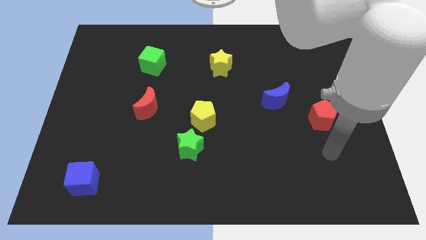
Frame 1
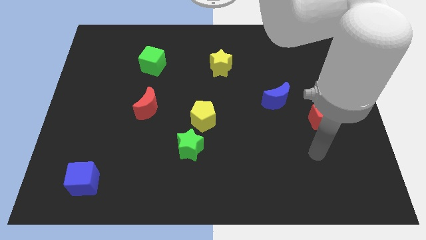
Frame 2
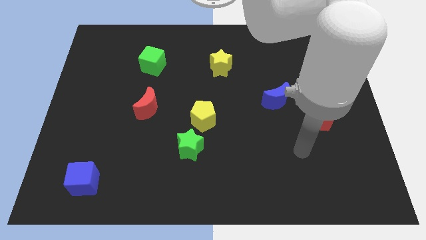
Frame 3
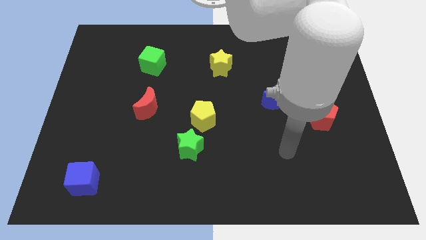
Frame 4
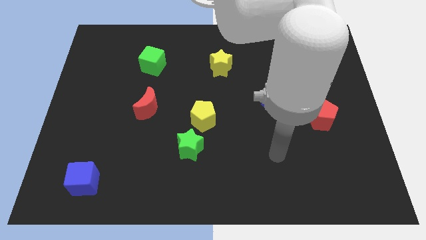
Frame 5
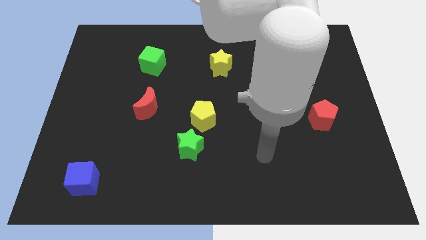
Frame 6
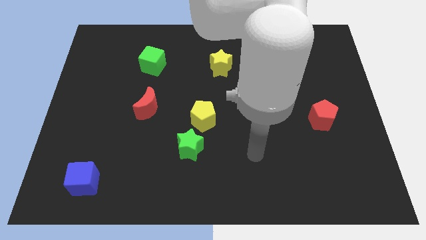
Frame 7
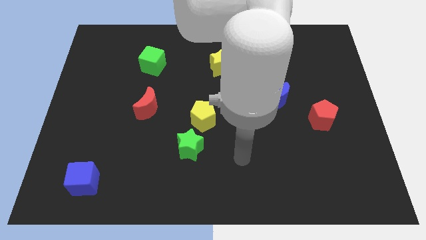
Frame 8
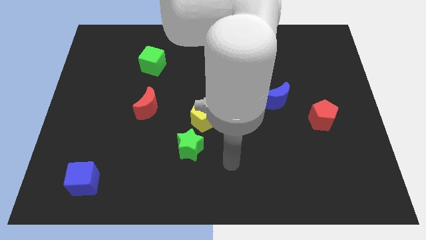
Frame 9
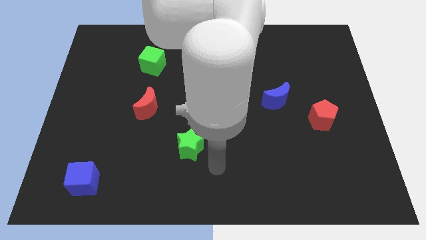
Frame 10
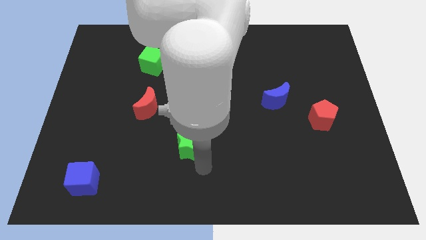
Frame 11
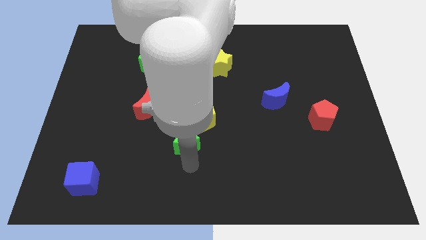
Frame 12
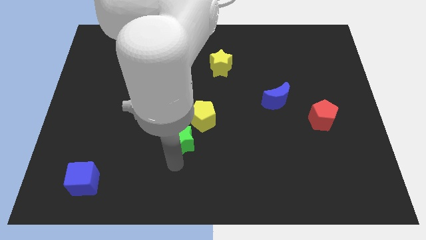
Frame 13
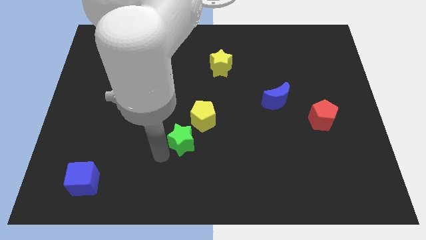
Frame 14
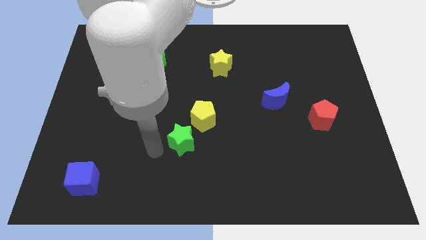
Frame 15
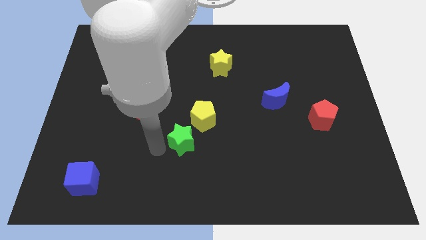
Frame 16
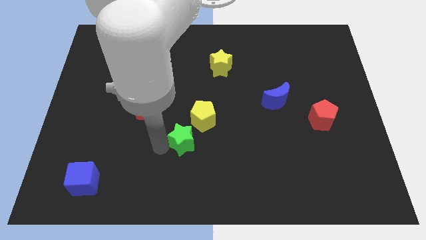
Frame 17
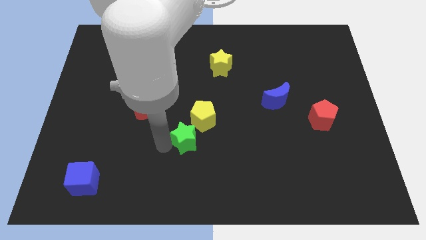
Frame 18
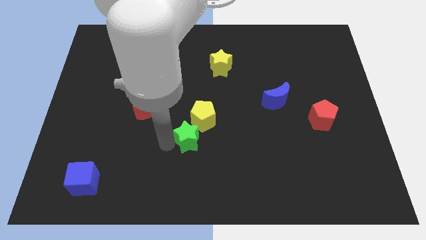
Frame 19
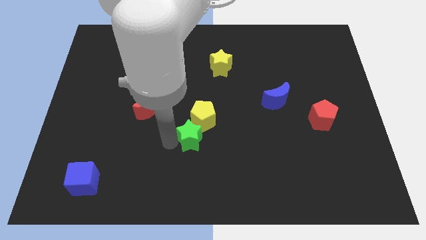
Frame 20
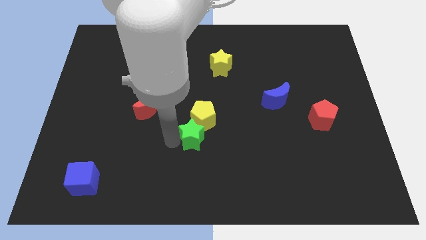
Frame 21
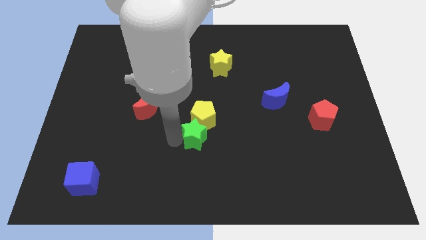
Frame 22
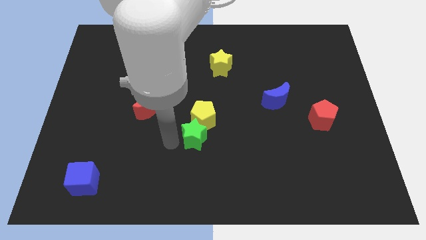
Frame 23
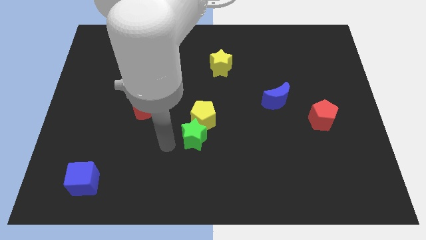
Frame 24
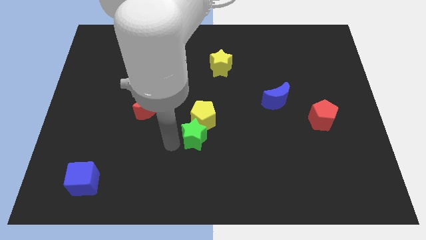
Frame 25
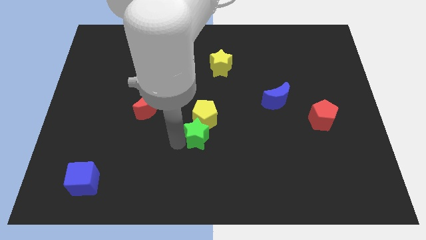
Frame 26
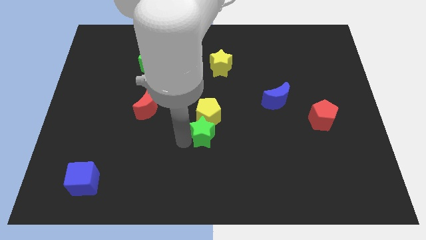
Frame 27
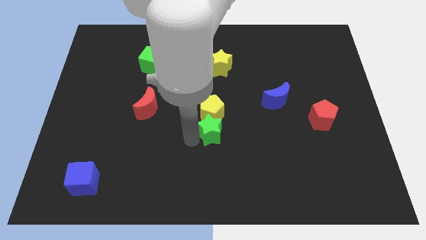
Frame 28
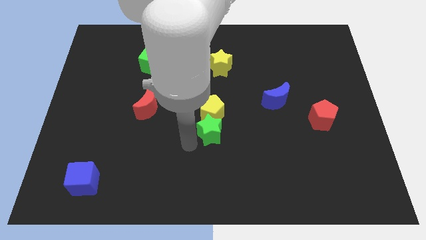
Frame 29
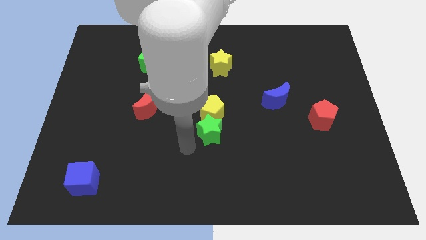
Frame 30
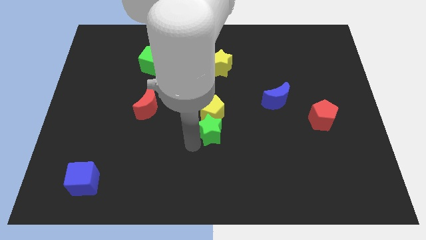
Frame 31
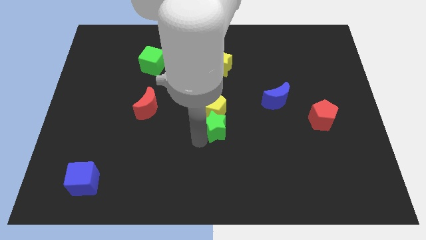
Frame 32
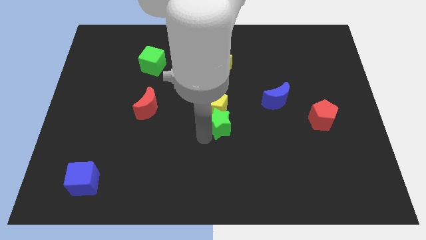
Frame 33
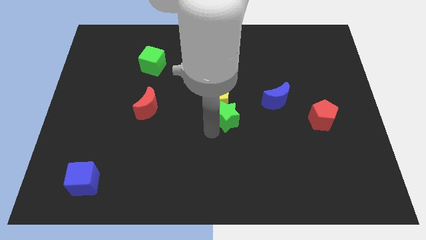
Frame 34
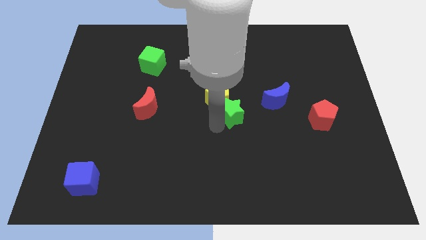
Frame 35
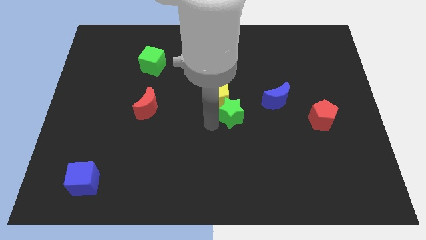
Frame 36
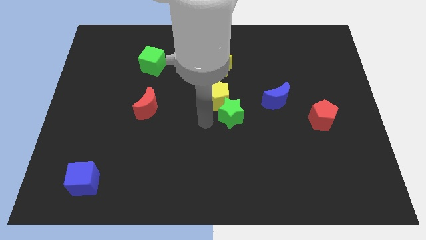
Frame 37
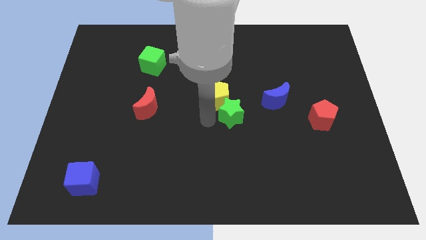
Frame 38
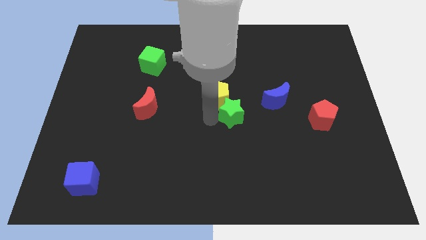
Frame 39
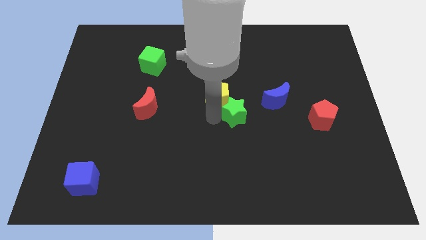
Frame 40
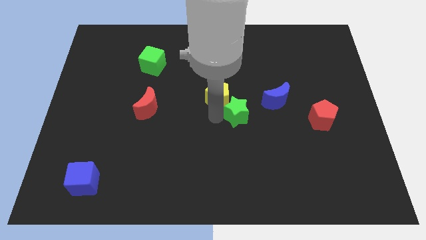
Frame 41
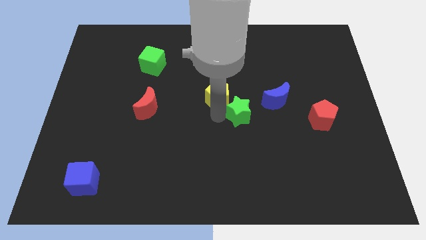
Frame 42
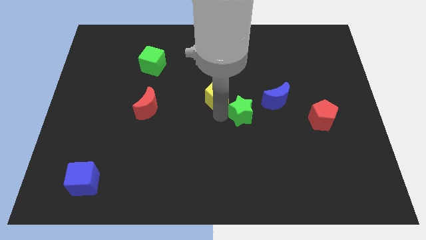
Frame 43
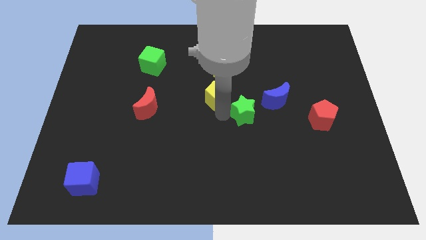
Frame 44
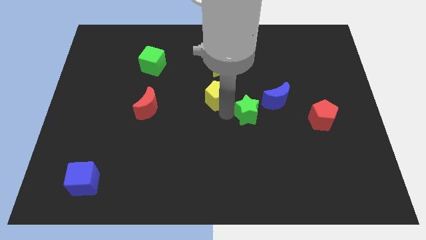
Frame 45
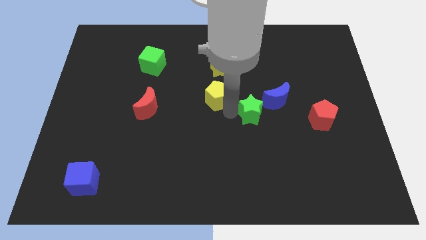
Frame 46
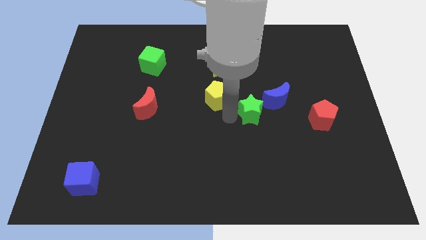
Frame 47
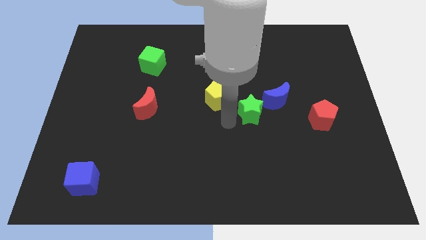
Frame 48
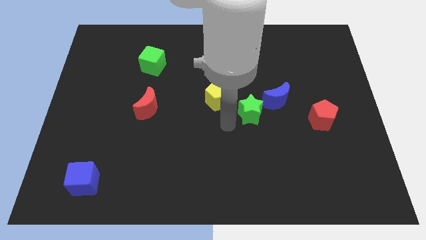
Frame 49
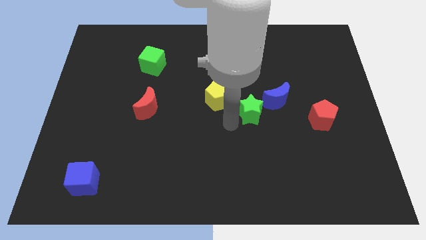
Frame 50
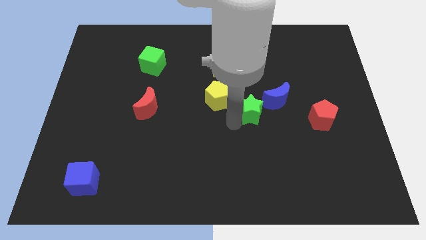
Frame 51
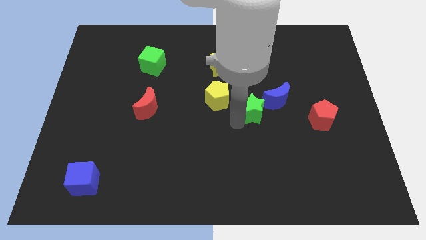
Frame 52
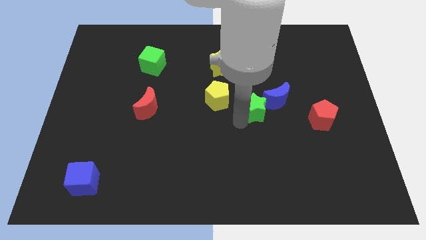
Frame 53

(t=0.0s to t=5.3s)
move the green star next to the blue moon

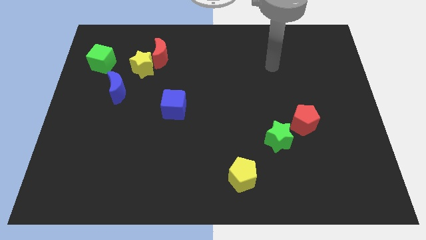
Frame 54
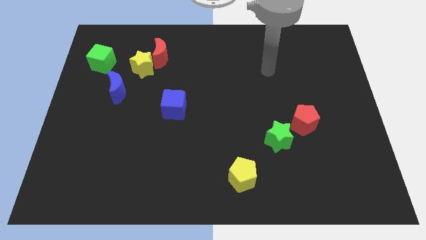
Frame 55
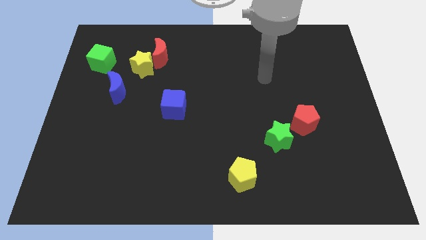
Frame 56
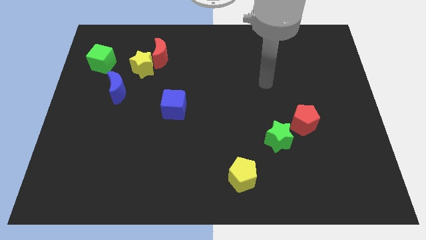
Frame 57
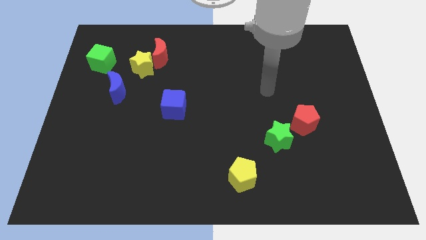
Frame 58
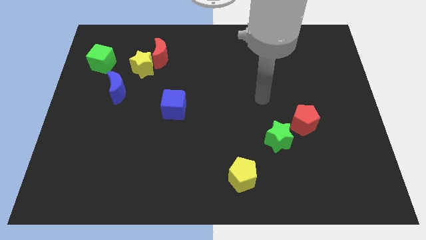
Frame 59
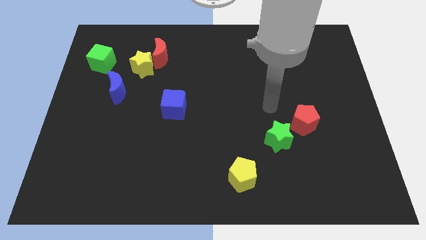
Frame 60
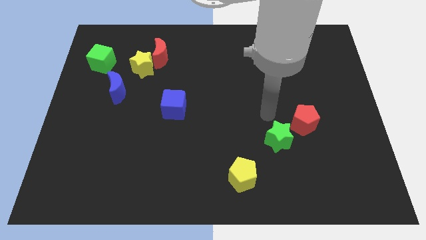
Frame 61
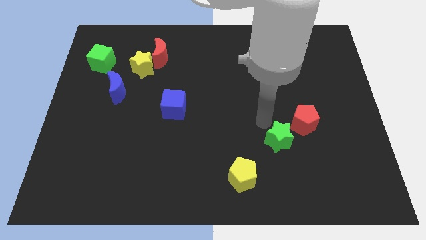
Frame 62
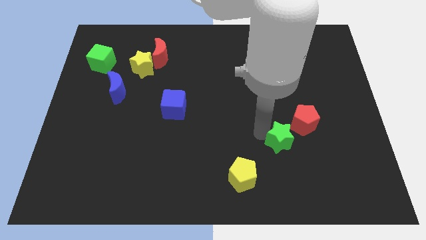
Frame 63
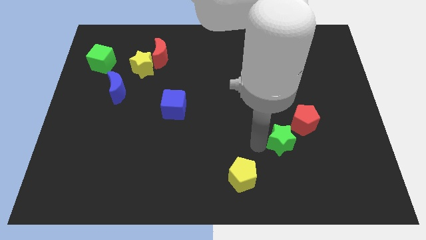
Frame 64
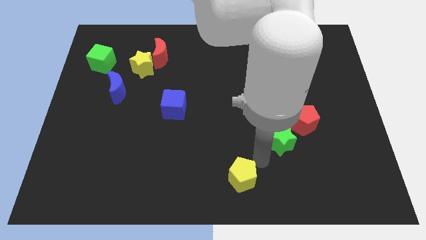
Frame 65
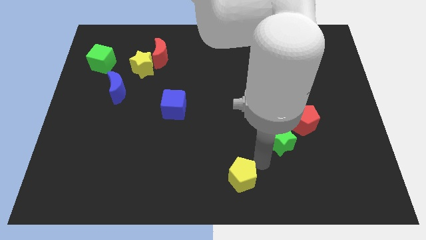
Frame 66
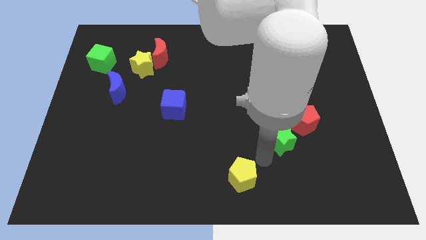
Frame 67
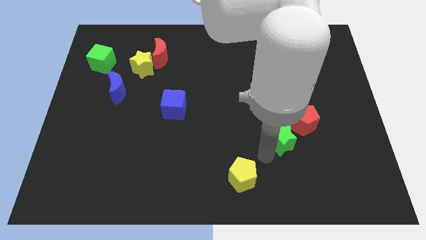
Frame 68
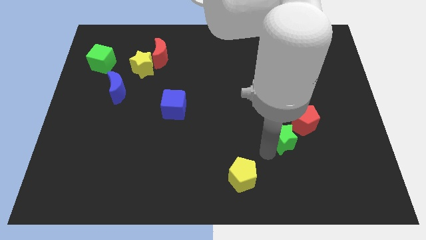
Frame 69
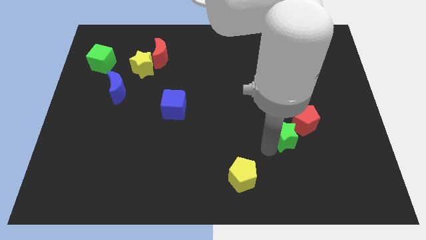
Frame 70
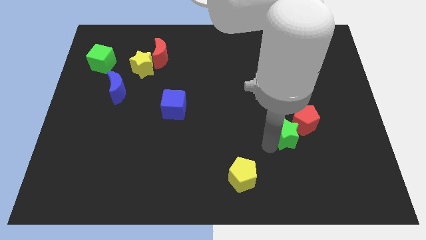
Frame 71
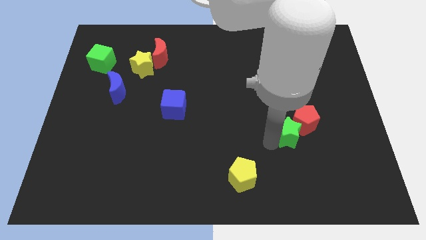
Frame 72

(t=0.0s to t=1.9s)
put the green star close to the red pentagon

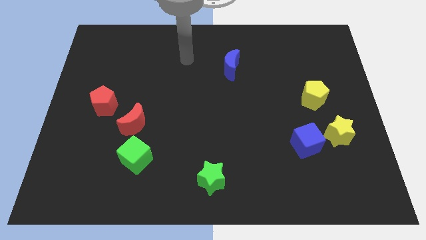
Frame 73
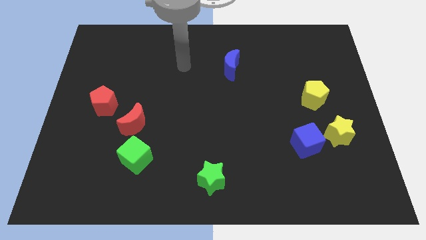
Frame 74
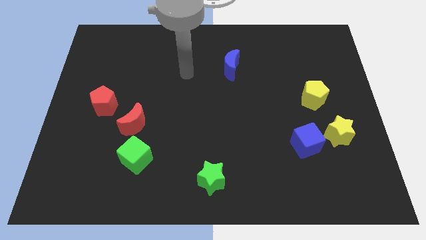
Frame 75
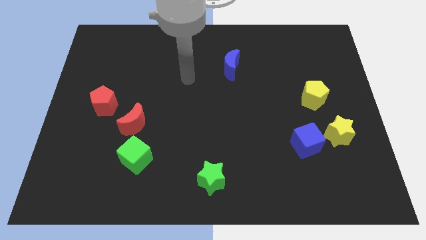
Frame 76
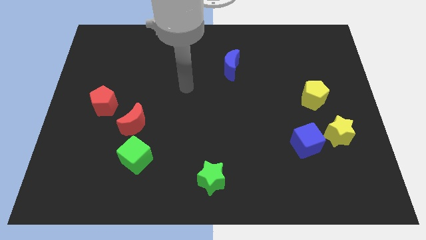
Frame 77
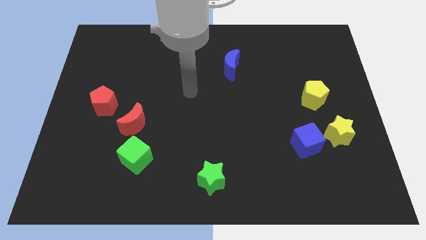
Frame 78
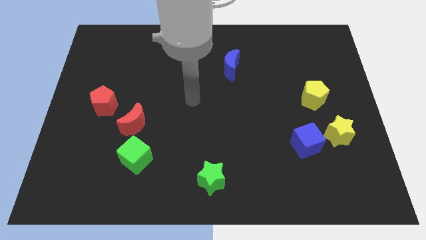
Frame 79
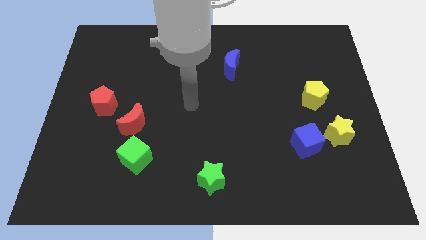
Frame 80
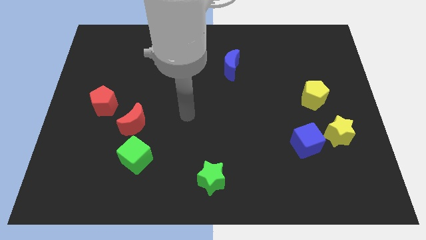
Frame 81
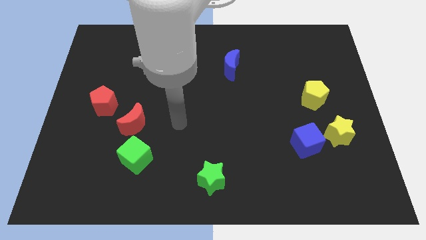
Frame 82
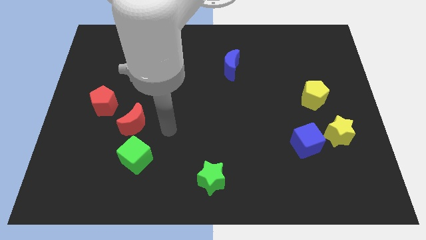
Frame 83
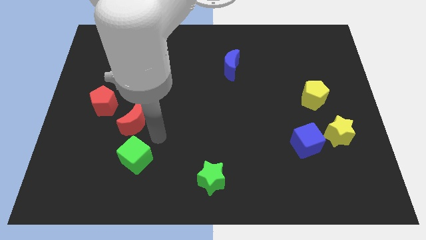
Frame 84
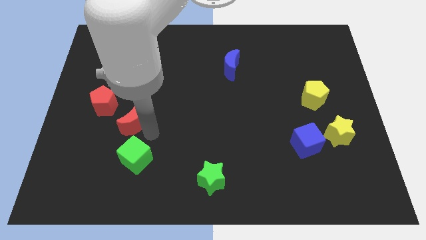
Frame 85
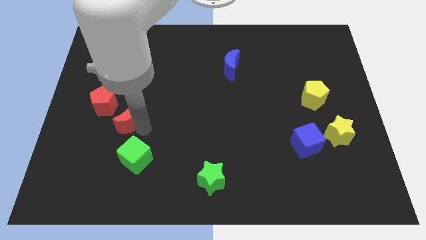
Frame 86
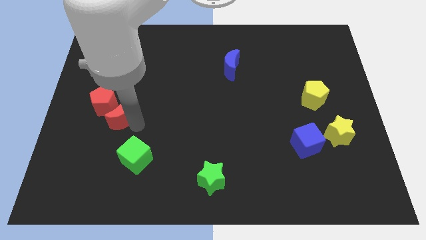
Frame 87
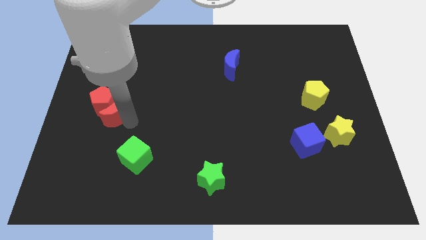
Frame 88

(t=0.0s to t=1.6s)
put the red moon to the red pentagon
